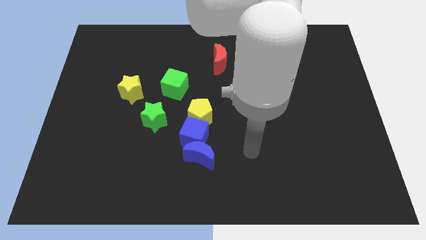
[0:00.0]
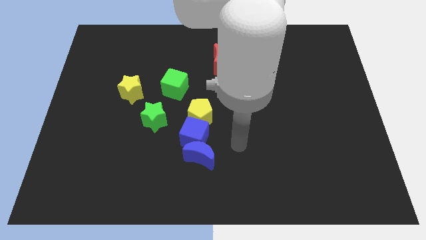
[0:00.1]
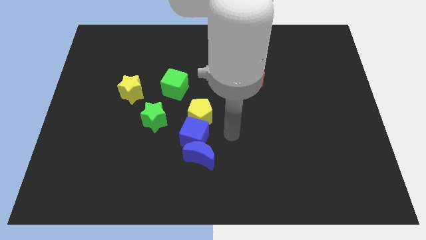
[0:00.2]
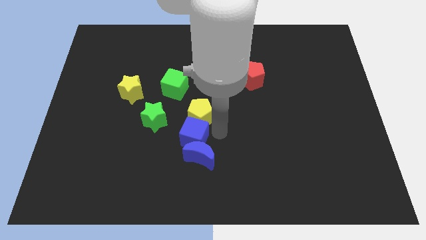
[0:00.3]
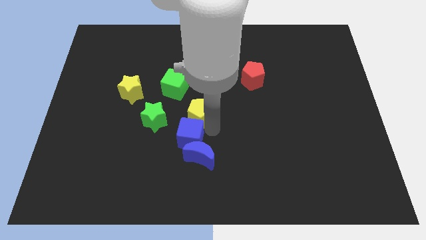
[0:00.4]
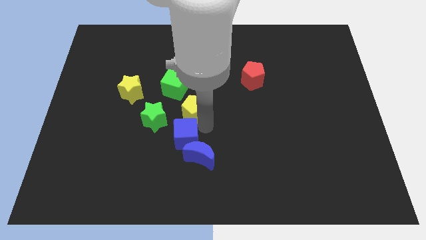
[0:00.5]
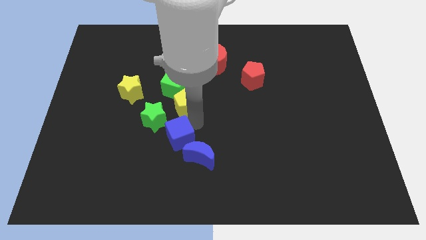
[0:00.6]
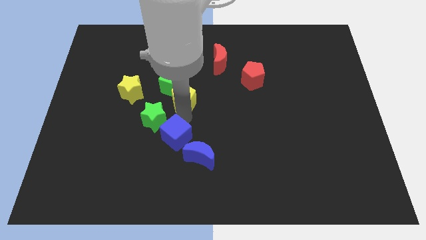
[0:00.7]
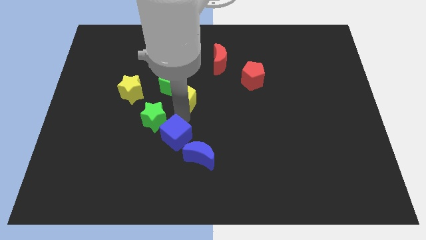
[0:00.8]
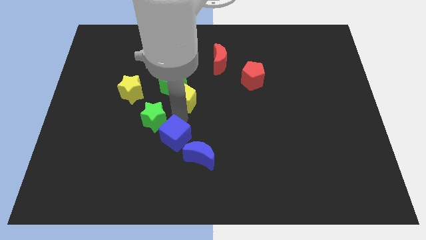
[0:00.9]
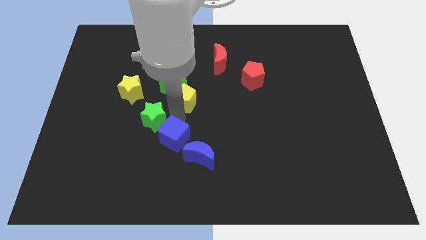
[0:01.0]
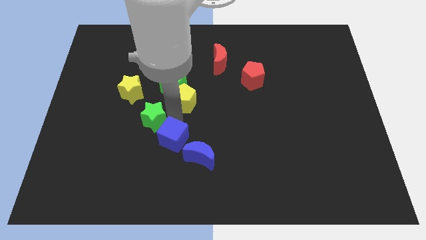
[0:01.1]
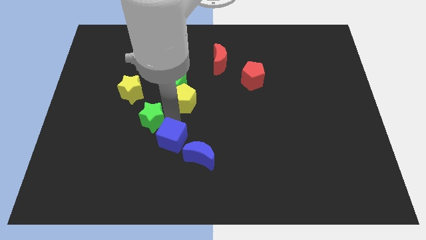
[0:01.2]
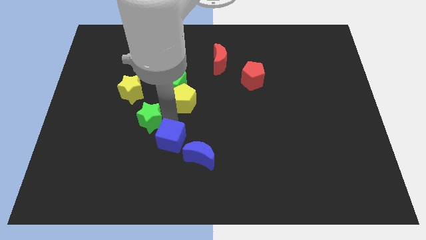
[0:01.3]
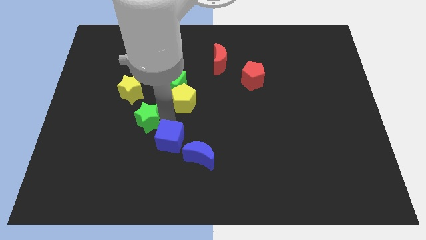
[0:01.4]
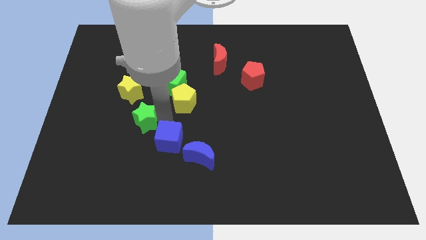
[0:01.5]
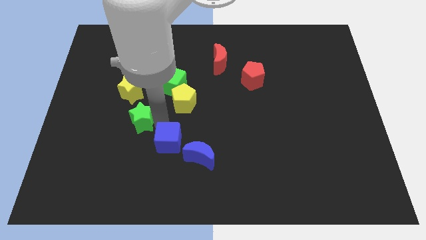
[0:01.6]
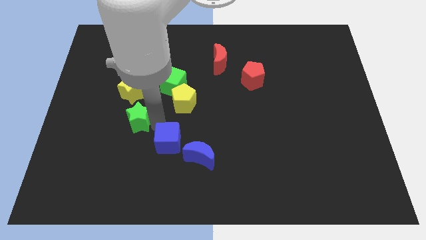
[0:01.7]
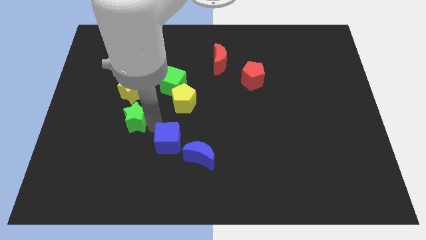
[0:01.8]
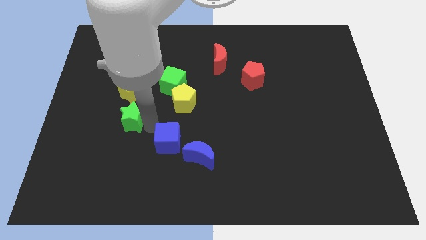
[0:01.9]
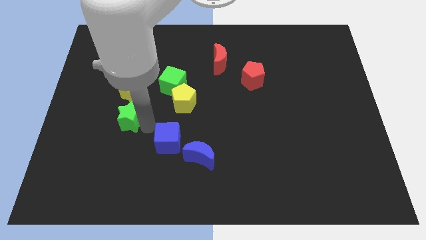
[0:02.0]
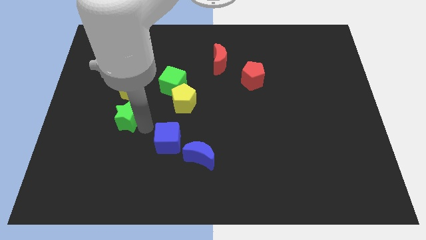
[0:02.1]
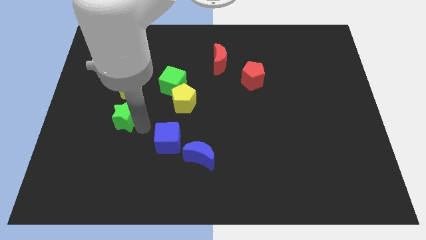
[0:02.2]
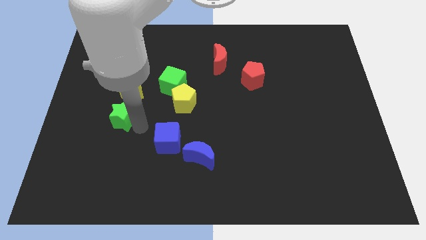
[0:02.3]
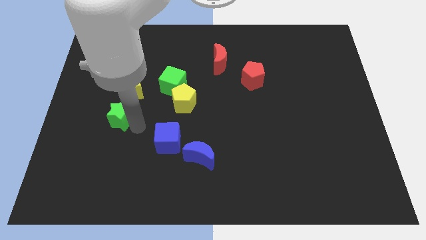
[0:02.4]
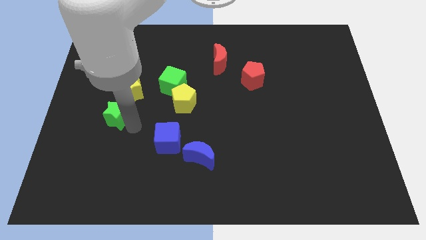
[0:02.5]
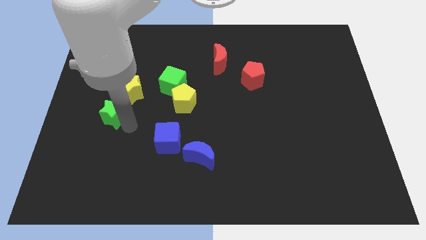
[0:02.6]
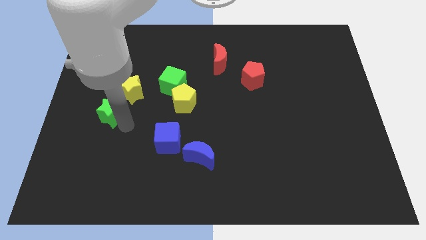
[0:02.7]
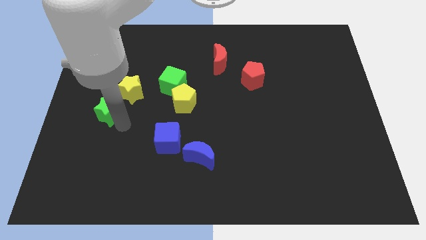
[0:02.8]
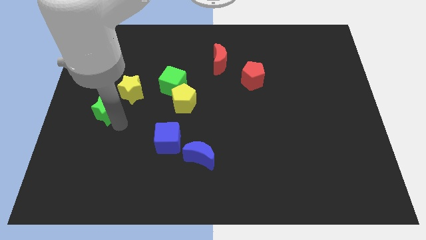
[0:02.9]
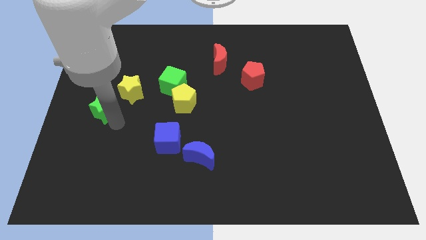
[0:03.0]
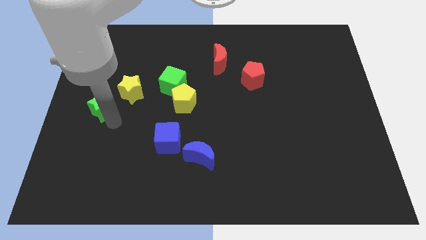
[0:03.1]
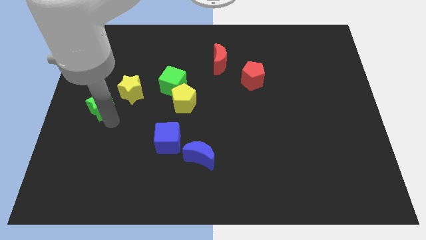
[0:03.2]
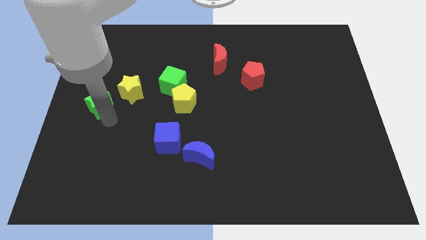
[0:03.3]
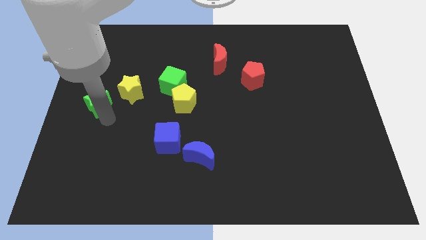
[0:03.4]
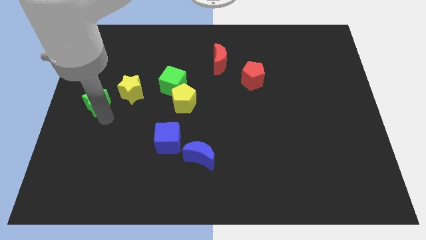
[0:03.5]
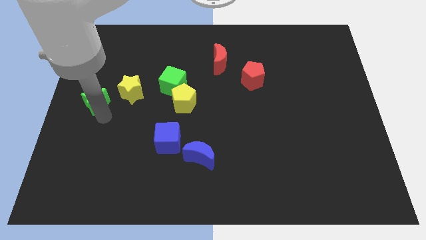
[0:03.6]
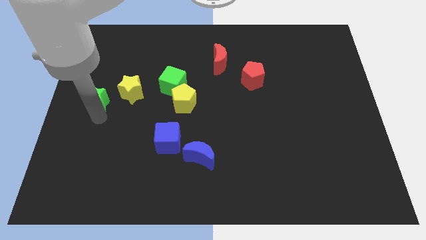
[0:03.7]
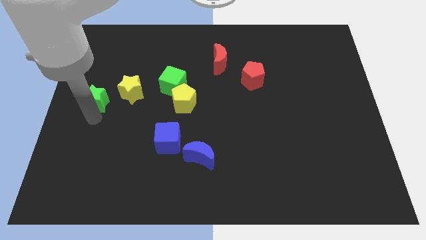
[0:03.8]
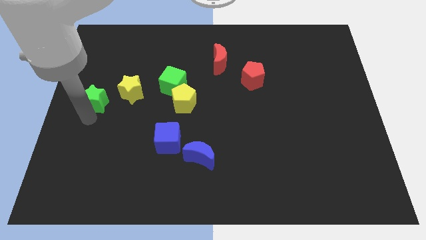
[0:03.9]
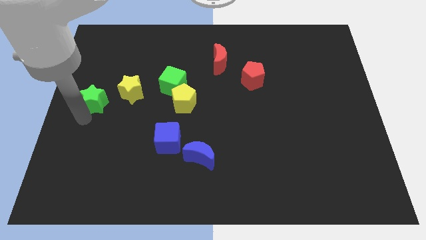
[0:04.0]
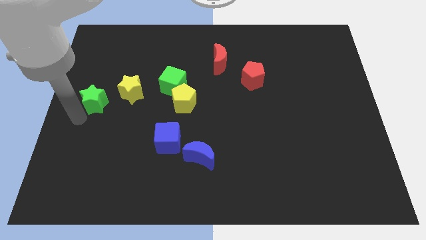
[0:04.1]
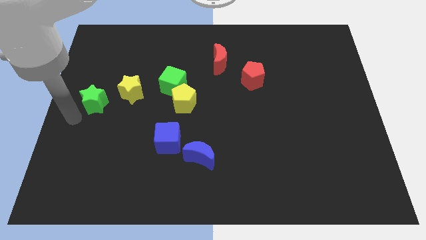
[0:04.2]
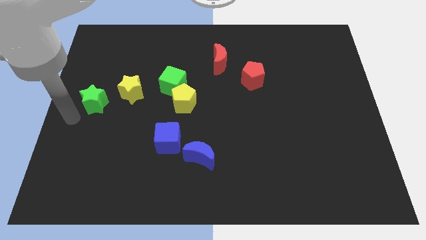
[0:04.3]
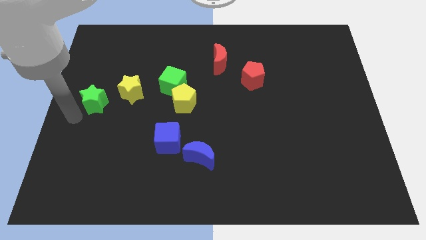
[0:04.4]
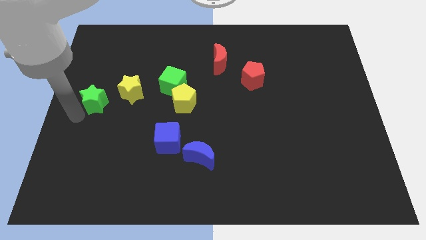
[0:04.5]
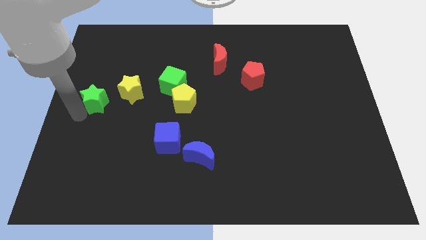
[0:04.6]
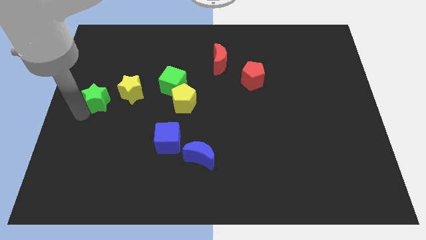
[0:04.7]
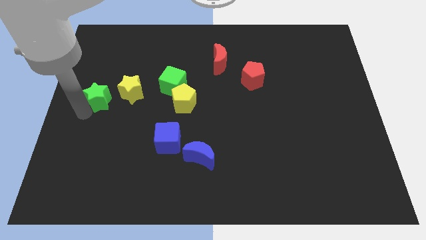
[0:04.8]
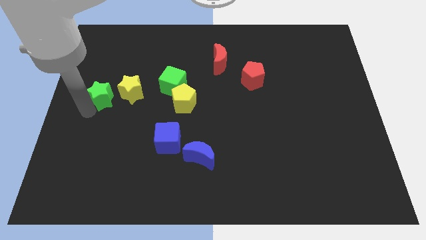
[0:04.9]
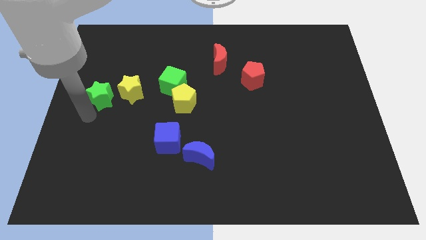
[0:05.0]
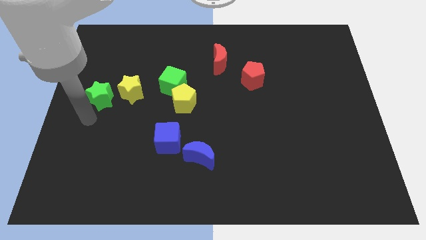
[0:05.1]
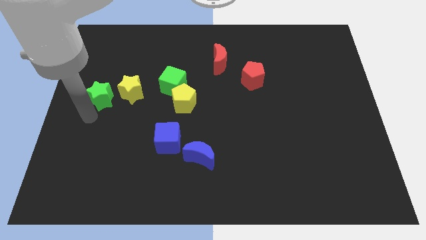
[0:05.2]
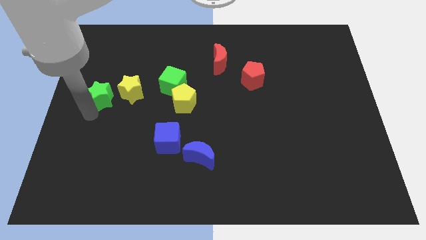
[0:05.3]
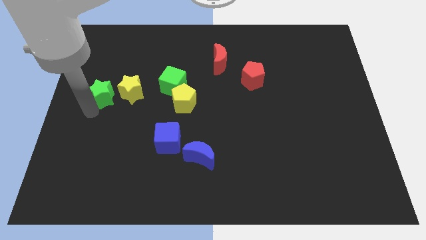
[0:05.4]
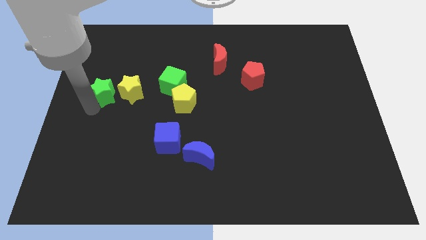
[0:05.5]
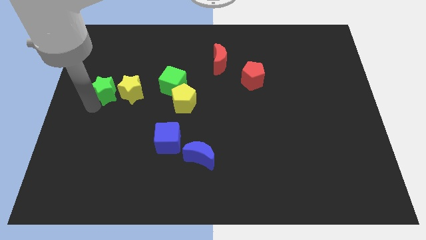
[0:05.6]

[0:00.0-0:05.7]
put the green star diagonally up and to the left of the yellow star

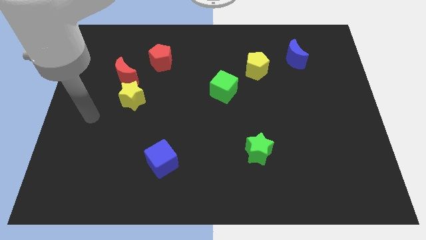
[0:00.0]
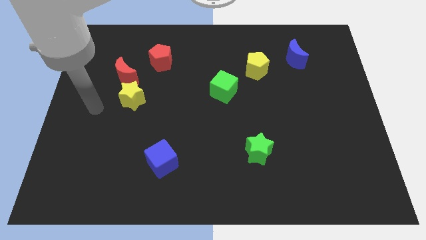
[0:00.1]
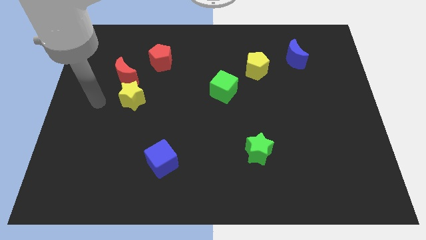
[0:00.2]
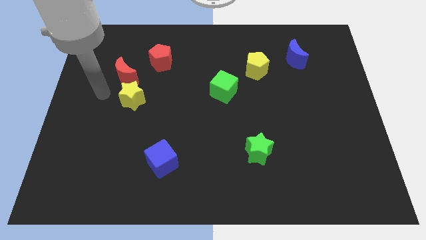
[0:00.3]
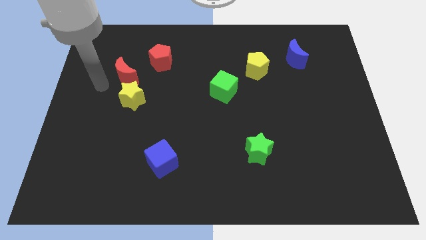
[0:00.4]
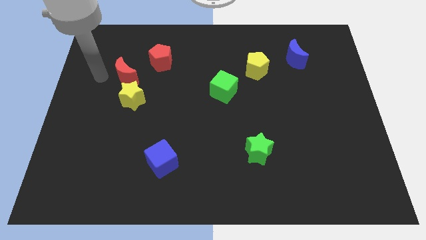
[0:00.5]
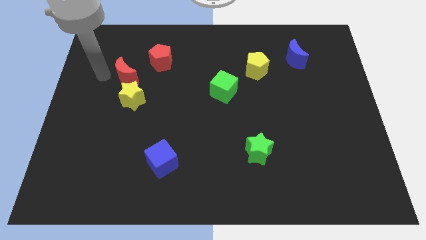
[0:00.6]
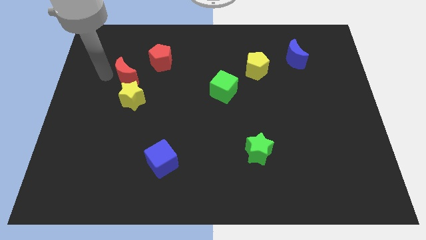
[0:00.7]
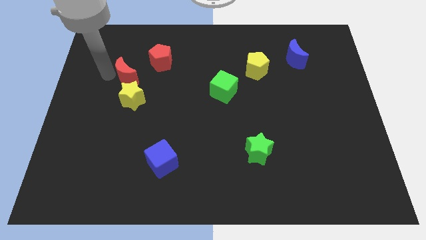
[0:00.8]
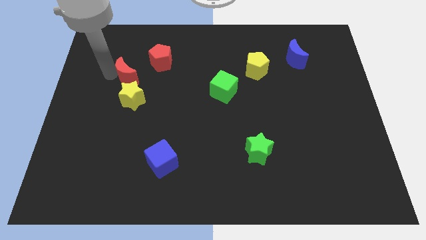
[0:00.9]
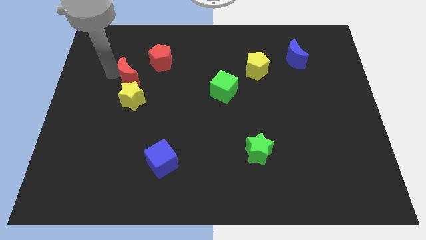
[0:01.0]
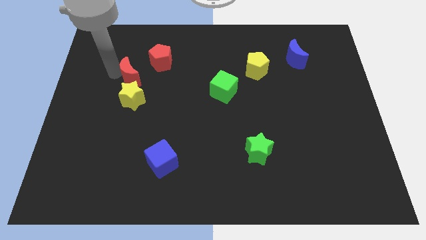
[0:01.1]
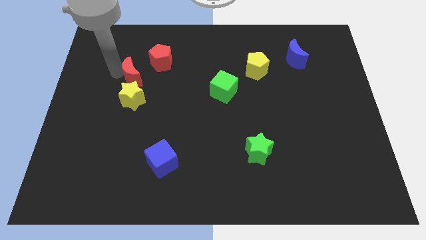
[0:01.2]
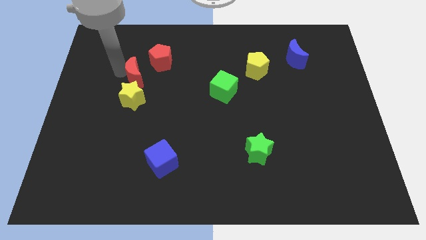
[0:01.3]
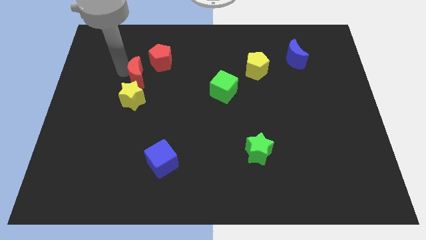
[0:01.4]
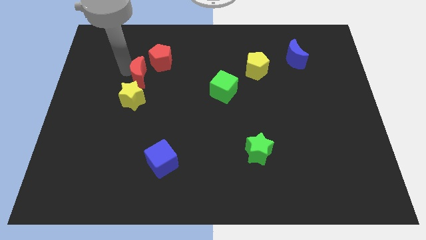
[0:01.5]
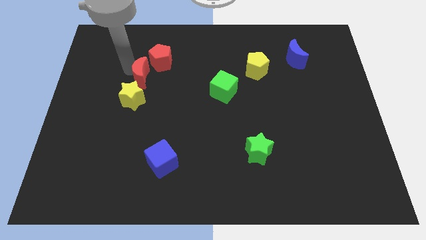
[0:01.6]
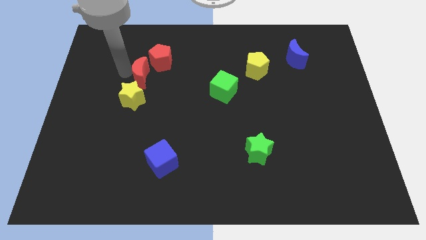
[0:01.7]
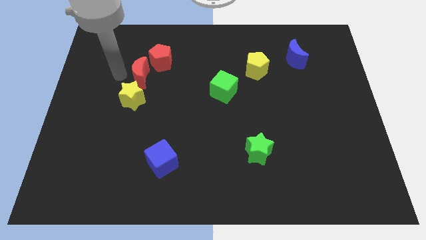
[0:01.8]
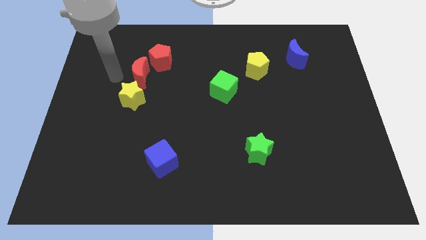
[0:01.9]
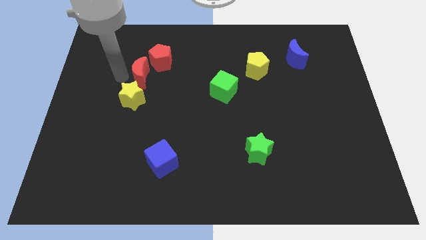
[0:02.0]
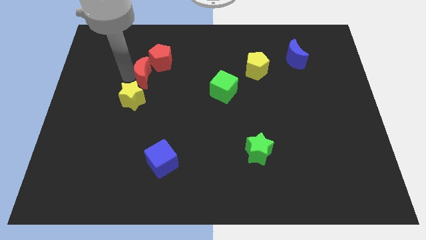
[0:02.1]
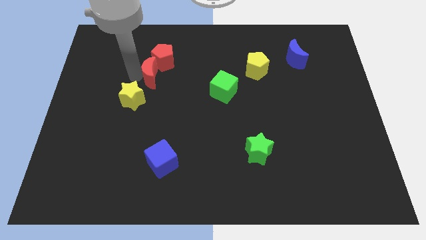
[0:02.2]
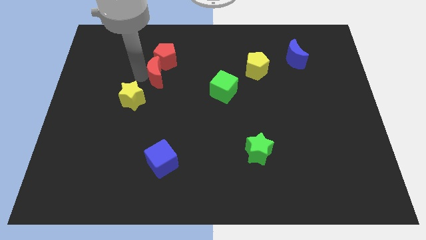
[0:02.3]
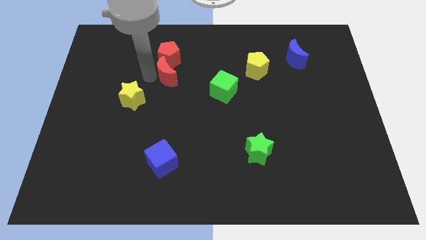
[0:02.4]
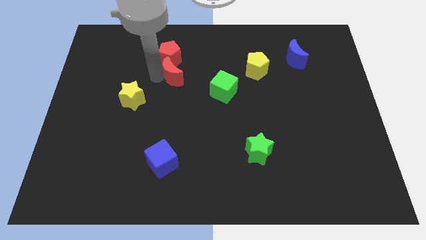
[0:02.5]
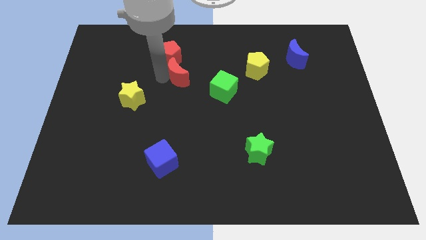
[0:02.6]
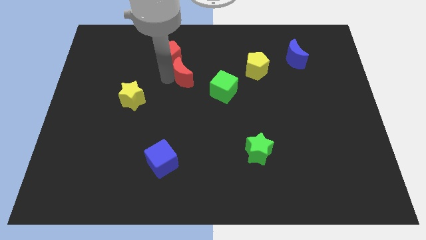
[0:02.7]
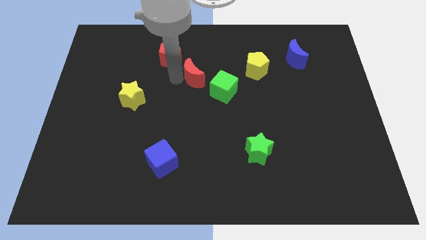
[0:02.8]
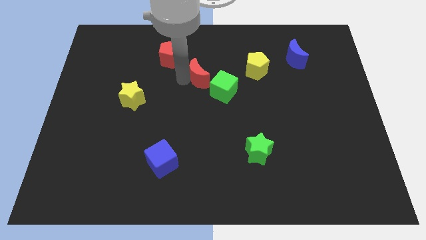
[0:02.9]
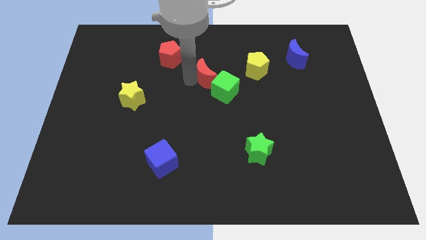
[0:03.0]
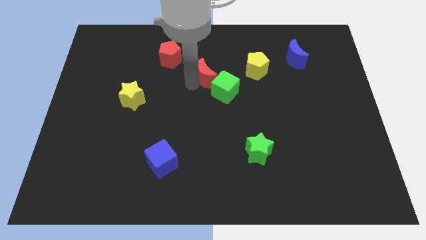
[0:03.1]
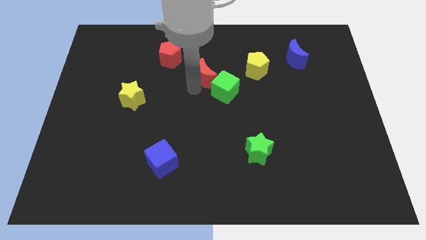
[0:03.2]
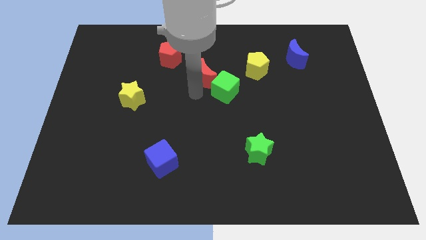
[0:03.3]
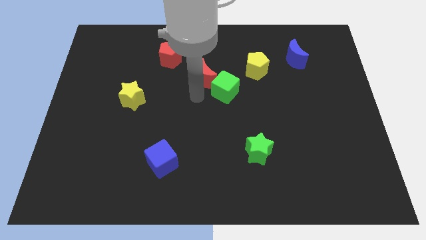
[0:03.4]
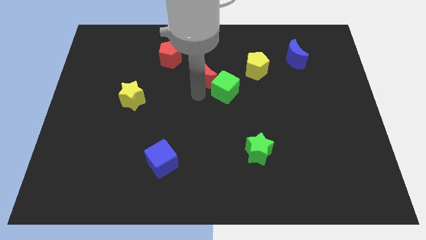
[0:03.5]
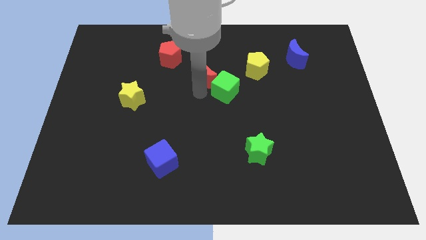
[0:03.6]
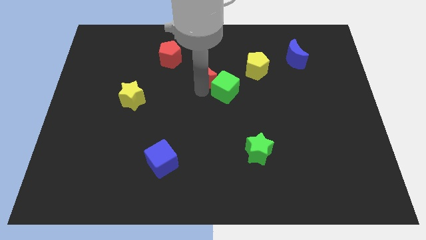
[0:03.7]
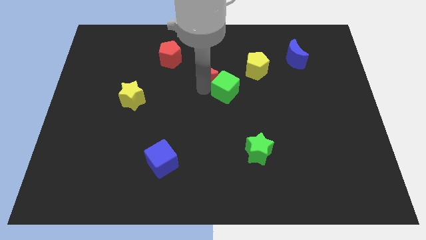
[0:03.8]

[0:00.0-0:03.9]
put the red moon to the top side of the green cube
